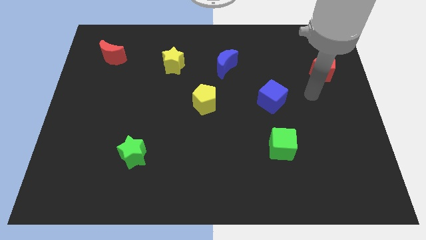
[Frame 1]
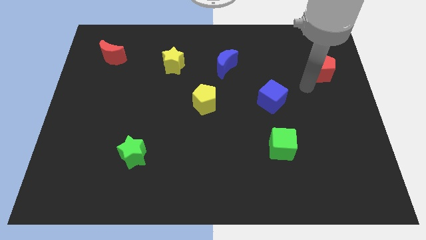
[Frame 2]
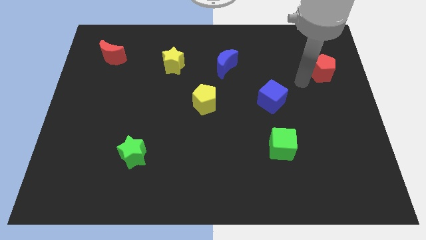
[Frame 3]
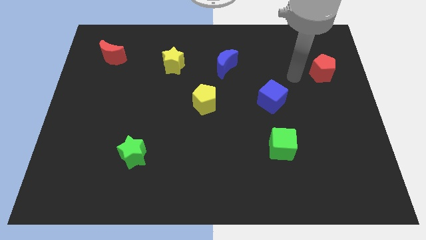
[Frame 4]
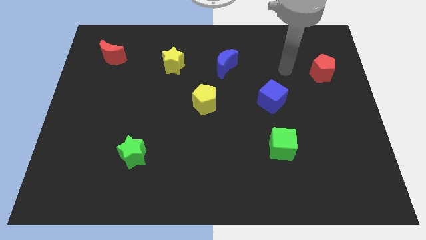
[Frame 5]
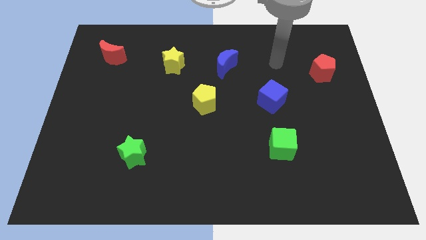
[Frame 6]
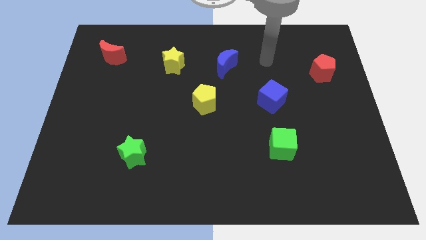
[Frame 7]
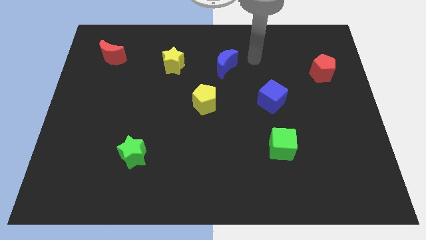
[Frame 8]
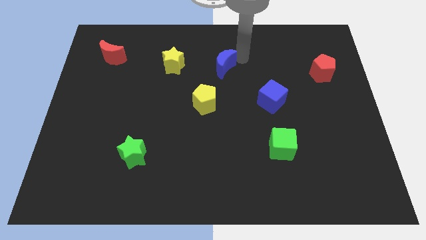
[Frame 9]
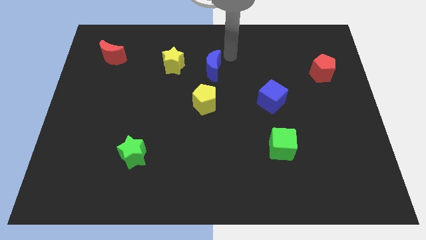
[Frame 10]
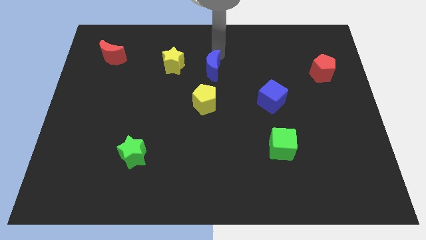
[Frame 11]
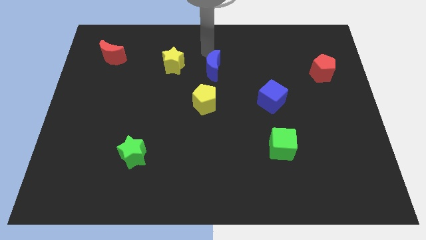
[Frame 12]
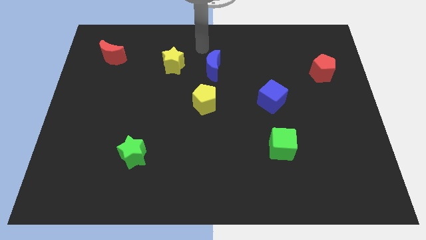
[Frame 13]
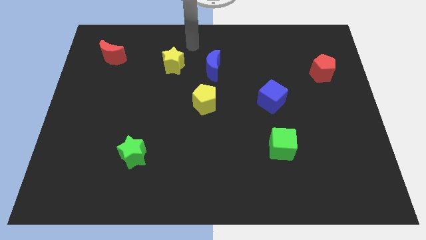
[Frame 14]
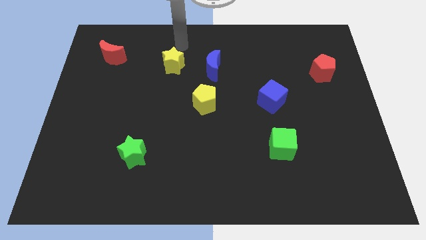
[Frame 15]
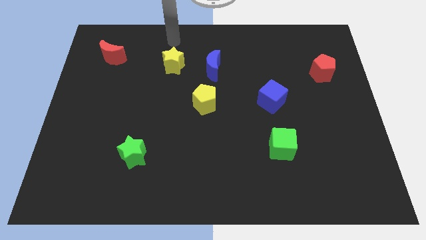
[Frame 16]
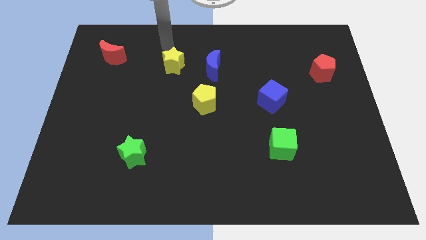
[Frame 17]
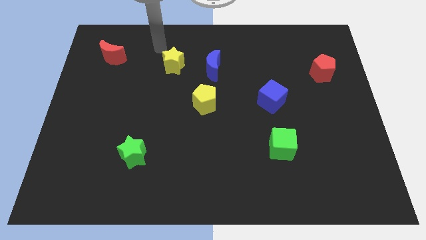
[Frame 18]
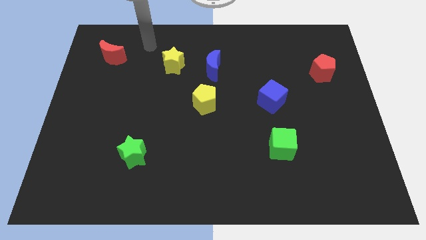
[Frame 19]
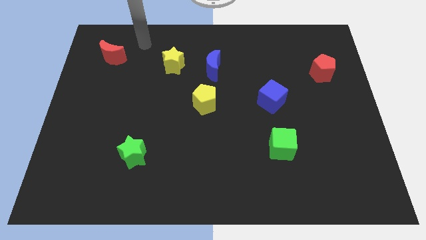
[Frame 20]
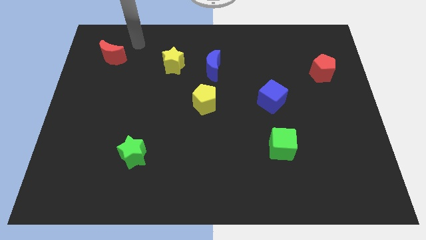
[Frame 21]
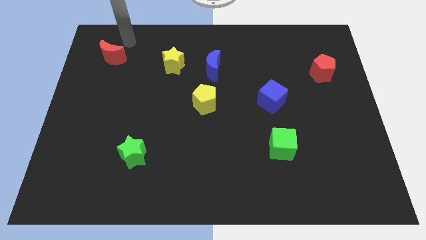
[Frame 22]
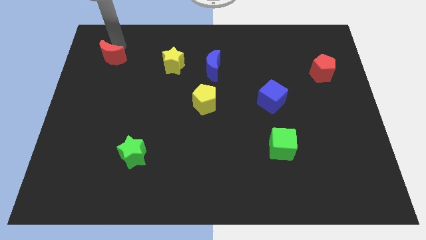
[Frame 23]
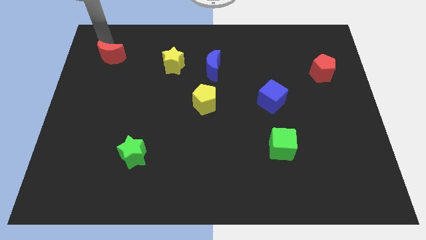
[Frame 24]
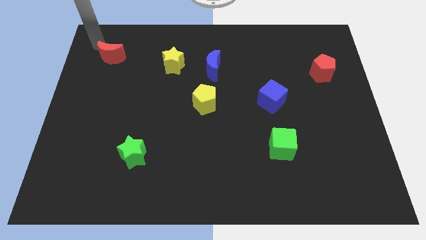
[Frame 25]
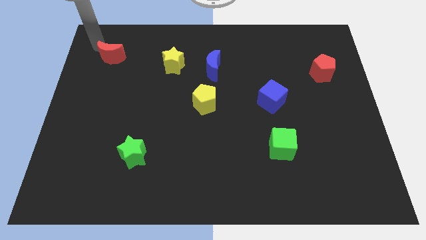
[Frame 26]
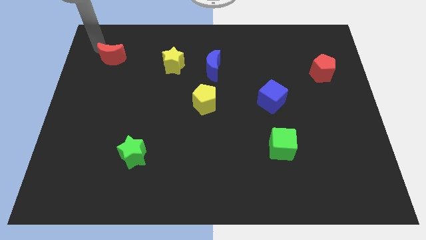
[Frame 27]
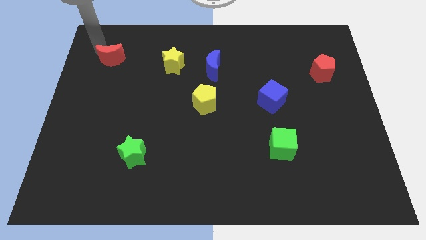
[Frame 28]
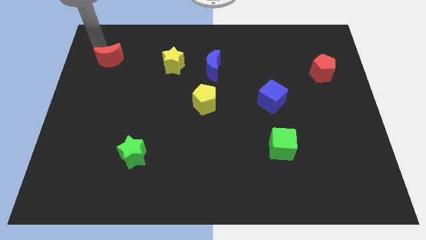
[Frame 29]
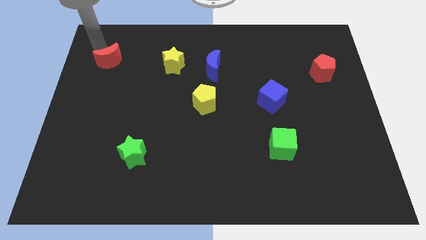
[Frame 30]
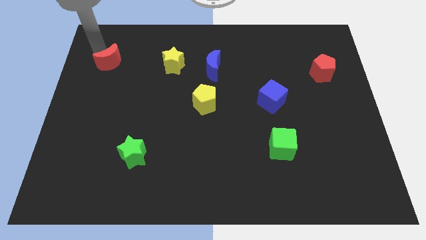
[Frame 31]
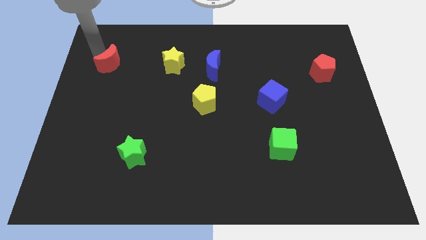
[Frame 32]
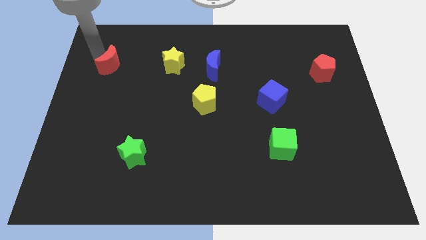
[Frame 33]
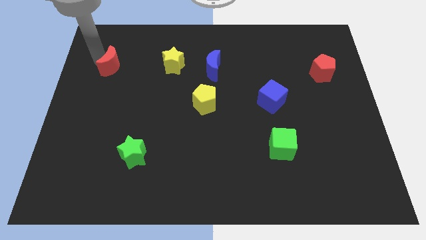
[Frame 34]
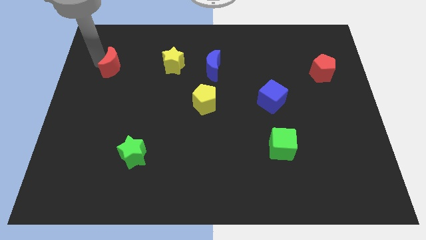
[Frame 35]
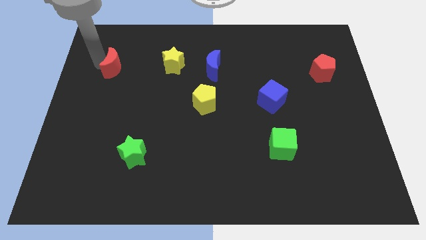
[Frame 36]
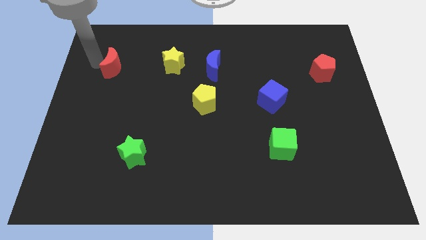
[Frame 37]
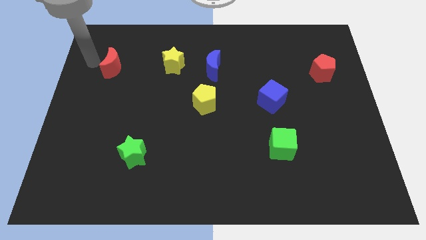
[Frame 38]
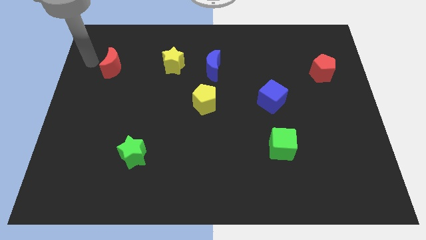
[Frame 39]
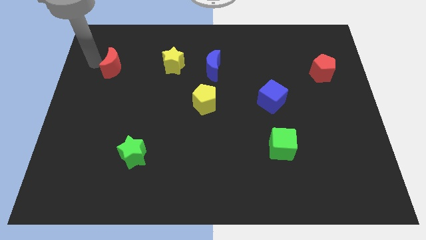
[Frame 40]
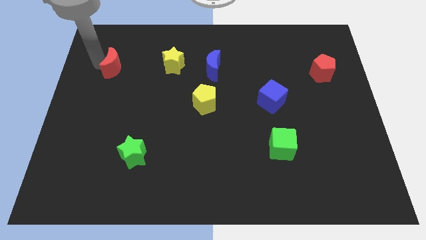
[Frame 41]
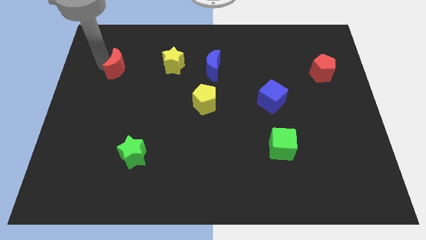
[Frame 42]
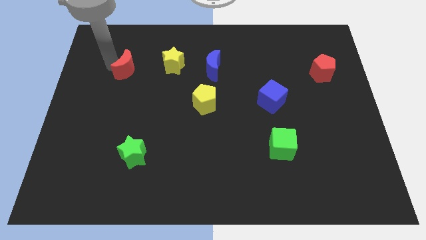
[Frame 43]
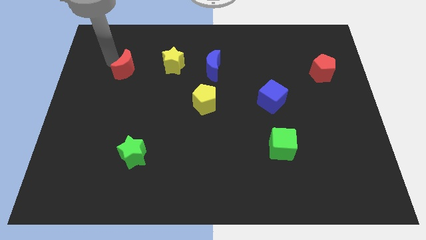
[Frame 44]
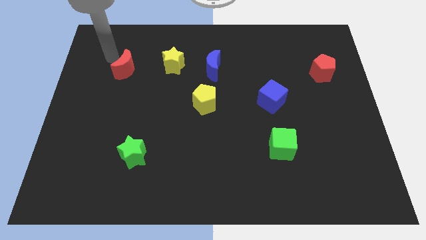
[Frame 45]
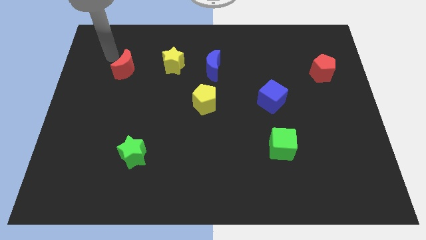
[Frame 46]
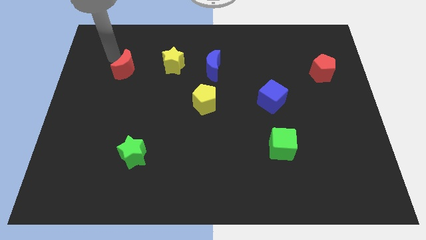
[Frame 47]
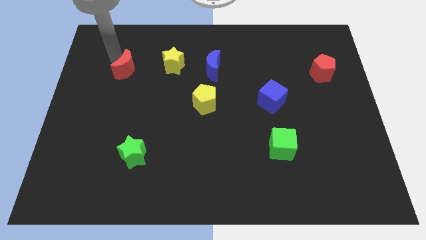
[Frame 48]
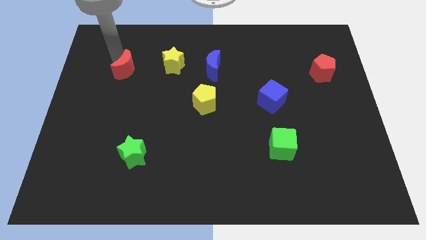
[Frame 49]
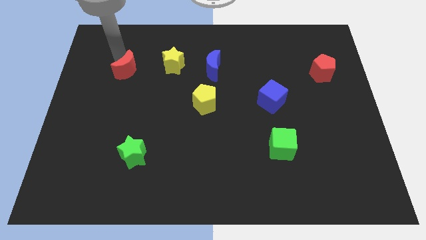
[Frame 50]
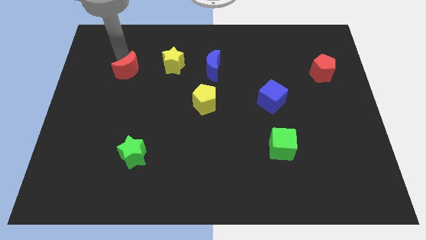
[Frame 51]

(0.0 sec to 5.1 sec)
slightly push the red moon down and then to the right

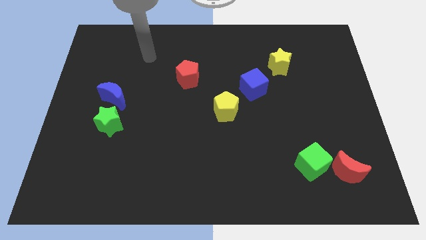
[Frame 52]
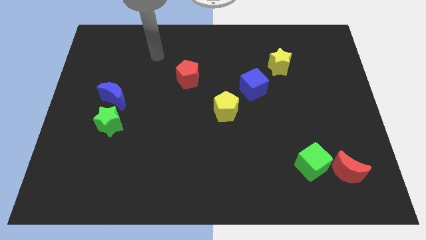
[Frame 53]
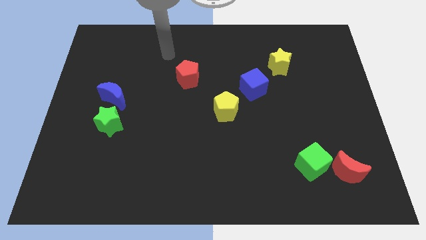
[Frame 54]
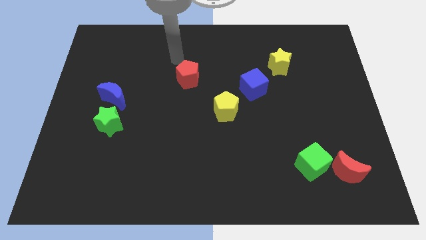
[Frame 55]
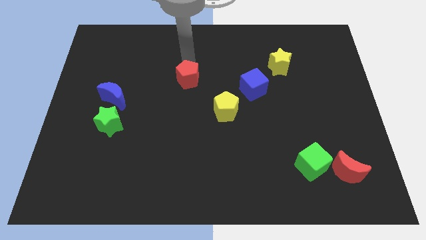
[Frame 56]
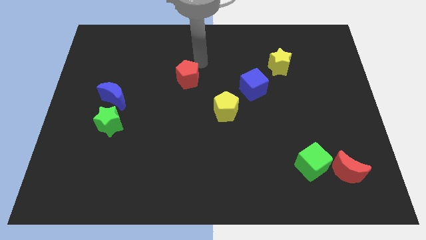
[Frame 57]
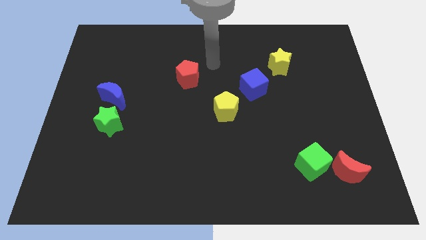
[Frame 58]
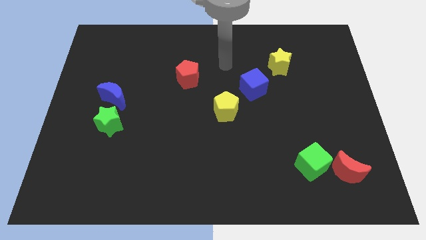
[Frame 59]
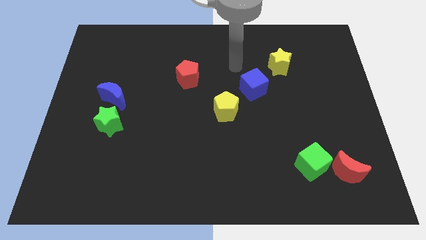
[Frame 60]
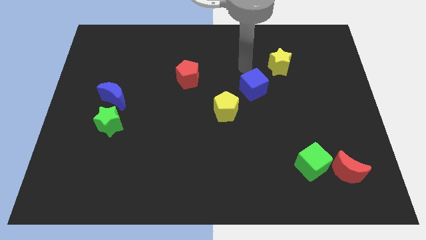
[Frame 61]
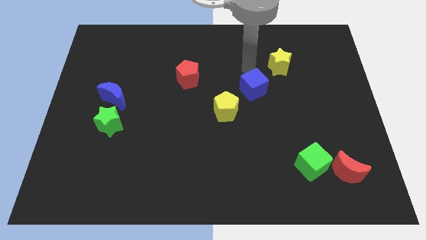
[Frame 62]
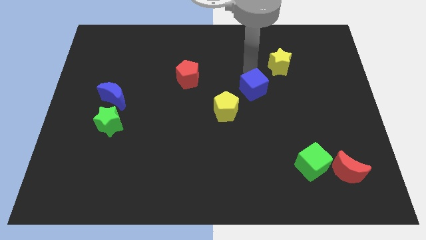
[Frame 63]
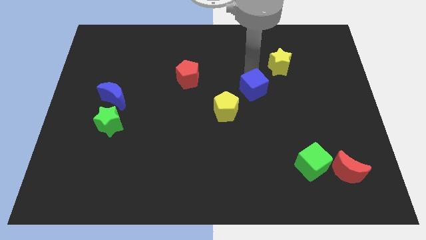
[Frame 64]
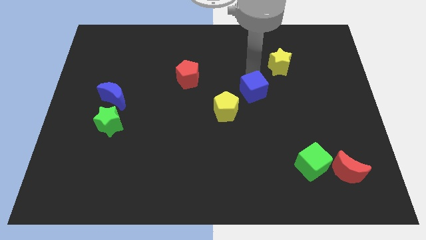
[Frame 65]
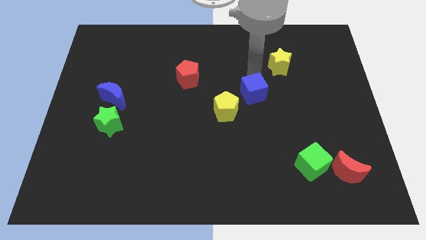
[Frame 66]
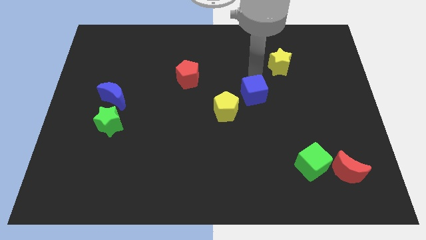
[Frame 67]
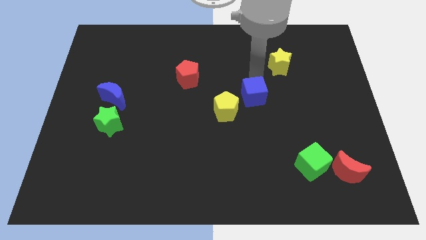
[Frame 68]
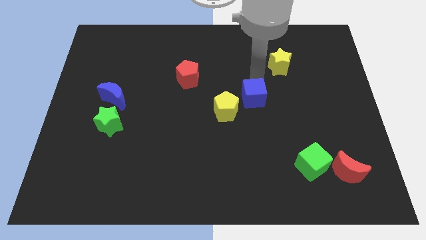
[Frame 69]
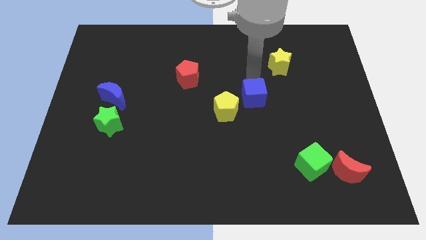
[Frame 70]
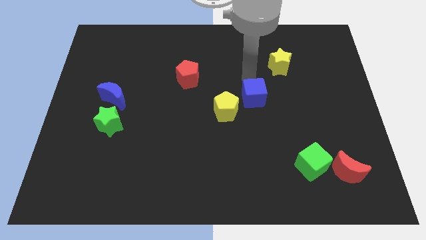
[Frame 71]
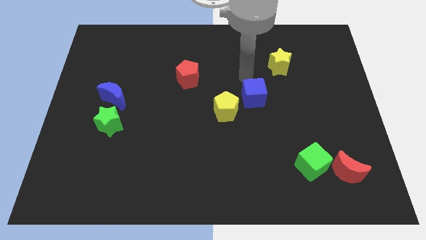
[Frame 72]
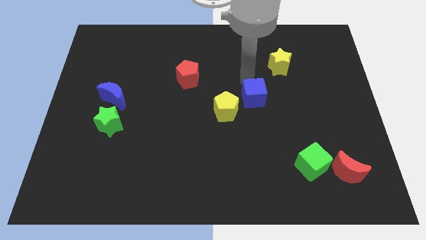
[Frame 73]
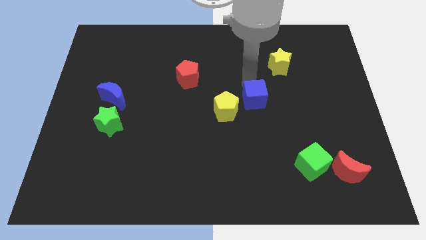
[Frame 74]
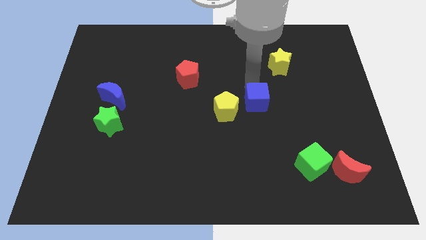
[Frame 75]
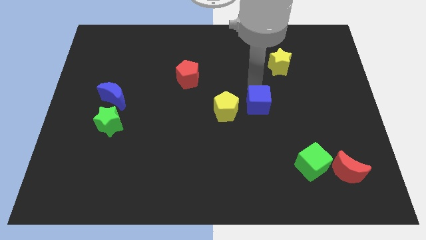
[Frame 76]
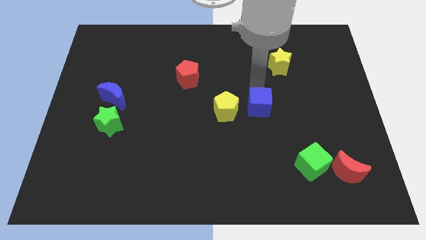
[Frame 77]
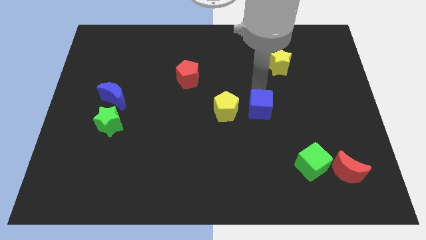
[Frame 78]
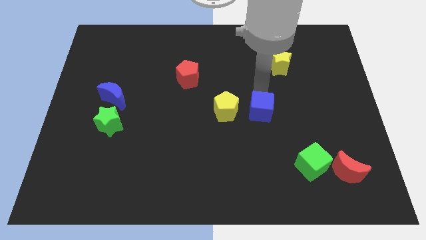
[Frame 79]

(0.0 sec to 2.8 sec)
slightly slide the blue cube down
